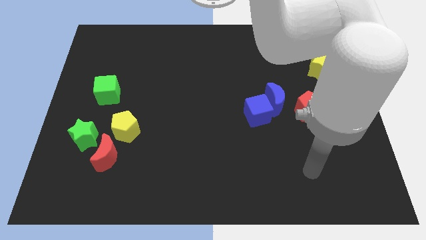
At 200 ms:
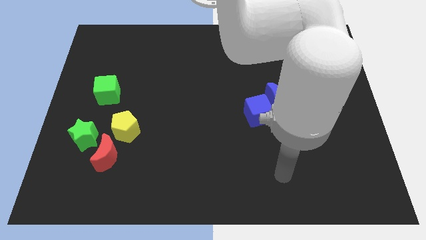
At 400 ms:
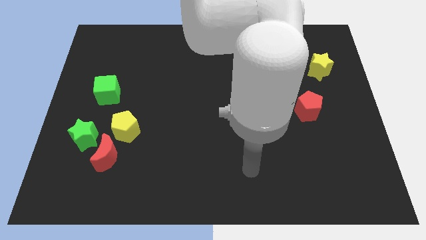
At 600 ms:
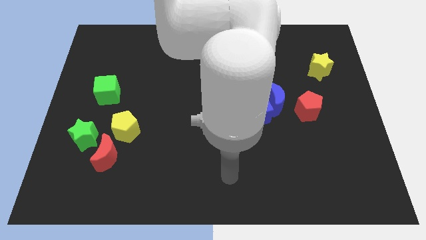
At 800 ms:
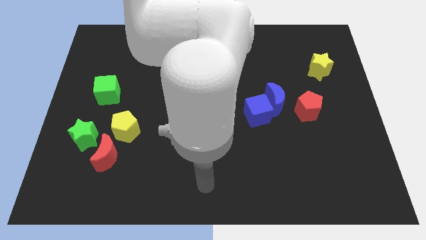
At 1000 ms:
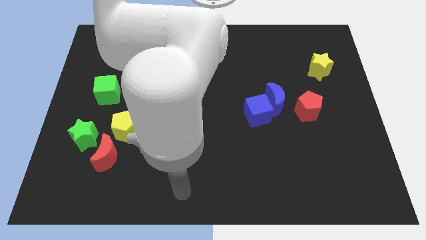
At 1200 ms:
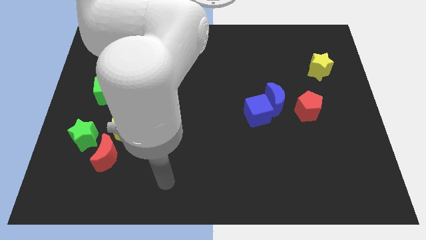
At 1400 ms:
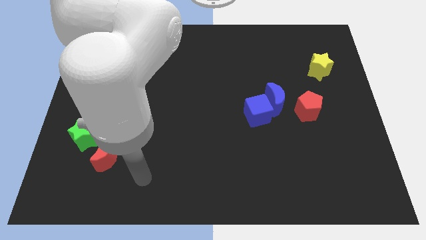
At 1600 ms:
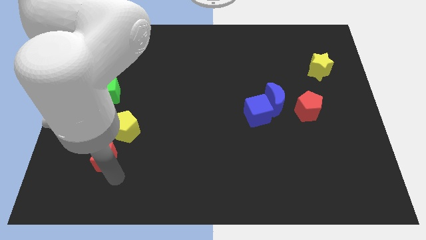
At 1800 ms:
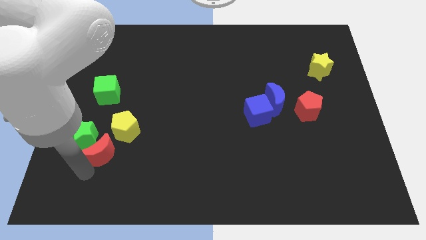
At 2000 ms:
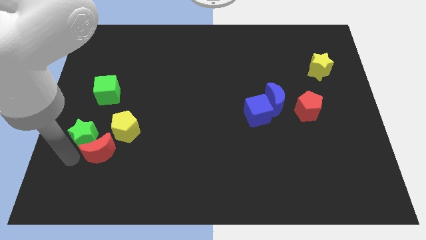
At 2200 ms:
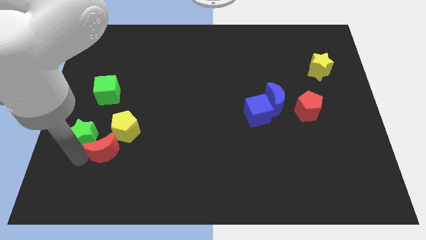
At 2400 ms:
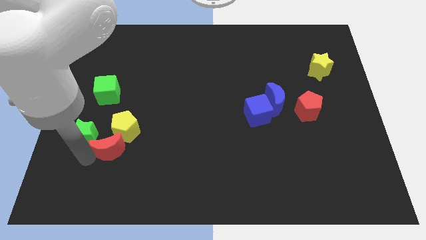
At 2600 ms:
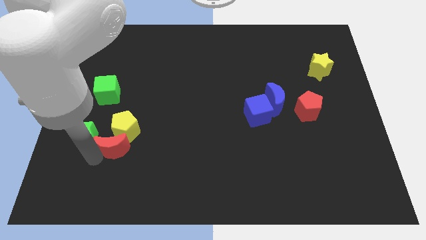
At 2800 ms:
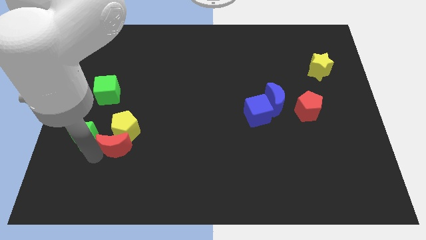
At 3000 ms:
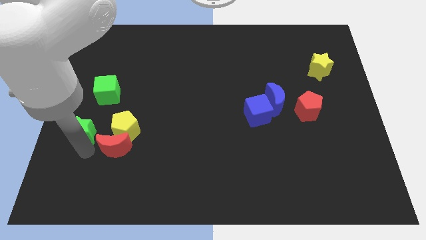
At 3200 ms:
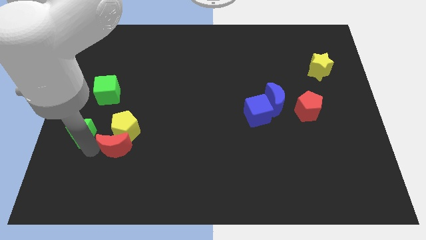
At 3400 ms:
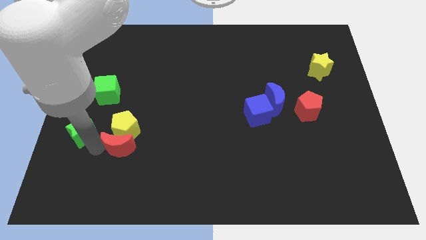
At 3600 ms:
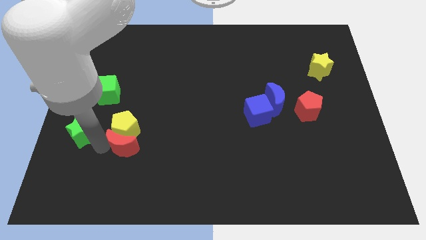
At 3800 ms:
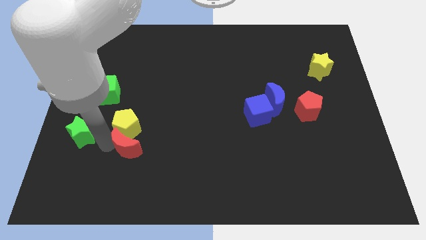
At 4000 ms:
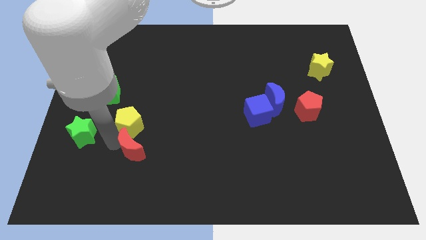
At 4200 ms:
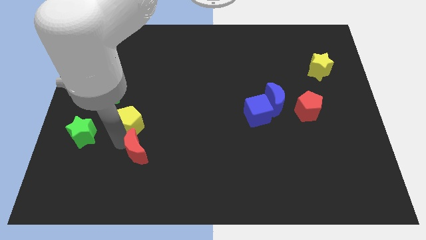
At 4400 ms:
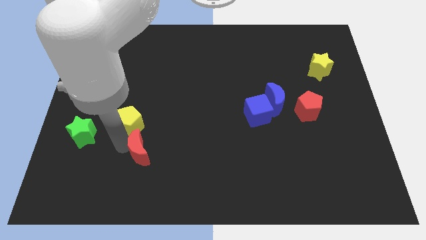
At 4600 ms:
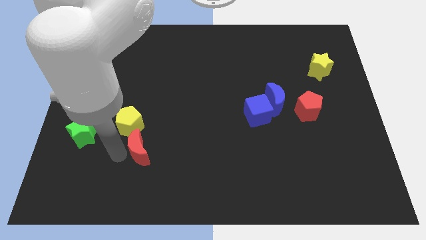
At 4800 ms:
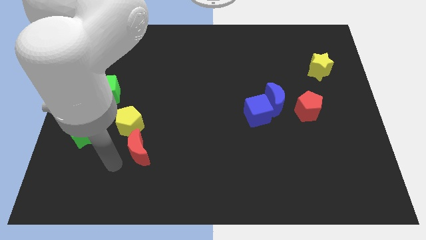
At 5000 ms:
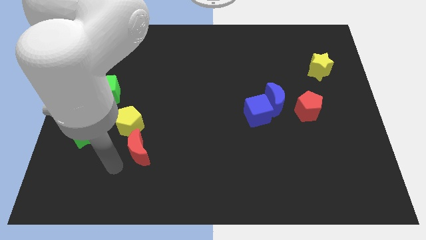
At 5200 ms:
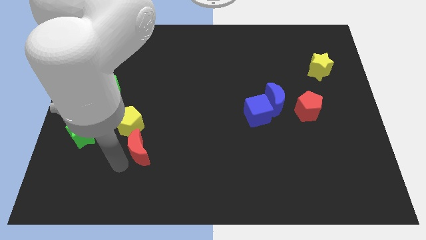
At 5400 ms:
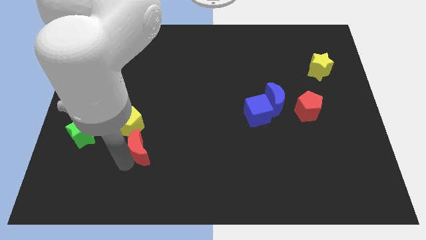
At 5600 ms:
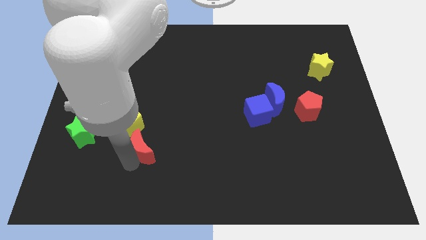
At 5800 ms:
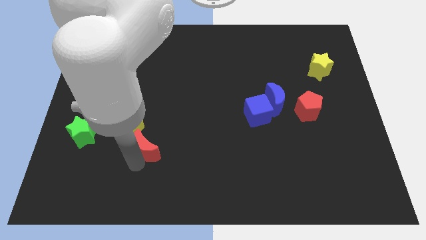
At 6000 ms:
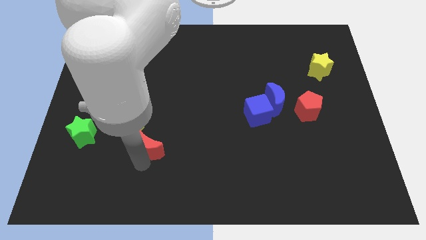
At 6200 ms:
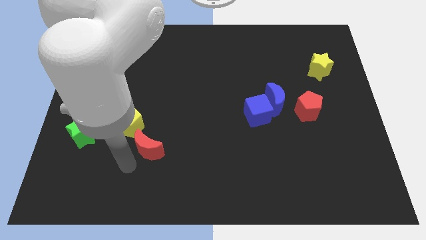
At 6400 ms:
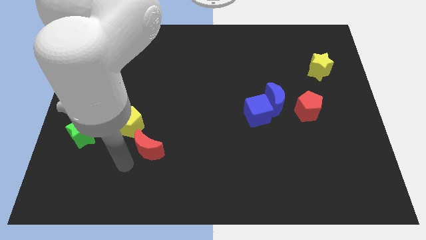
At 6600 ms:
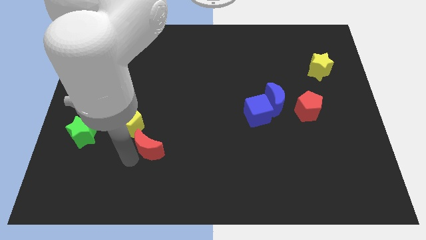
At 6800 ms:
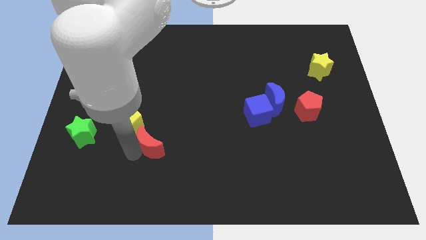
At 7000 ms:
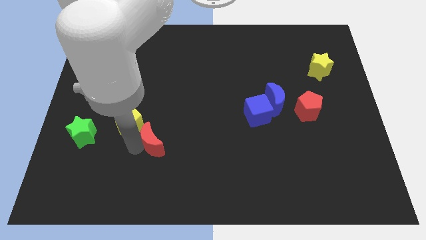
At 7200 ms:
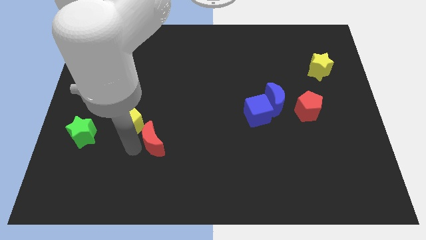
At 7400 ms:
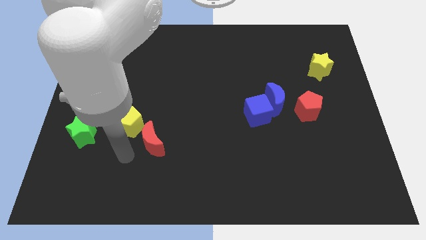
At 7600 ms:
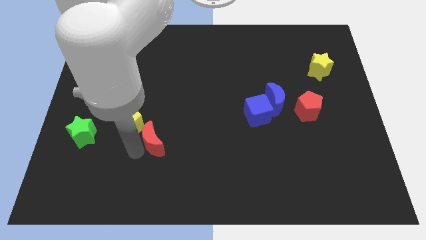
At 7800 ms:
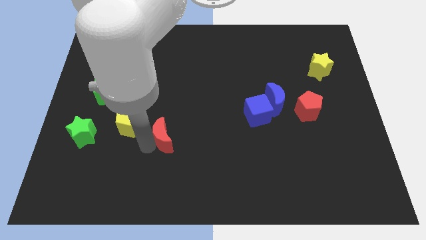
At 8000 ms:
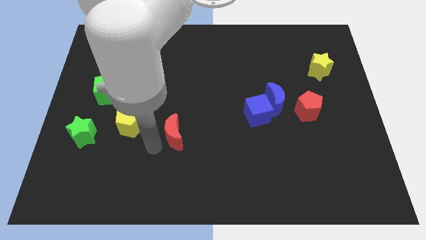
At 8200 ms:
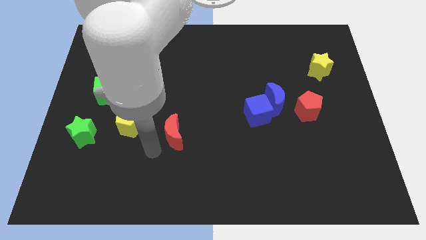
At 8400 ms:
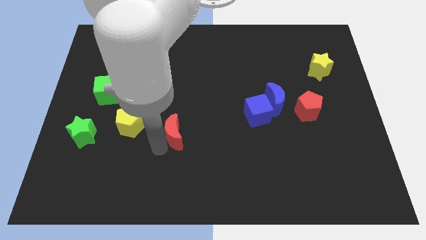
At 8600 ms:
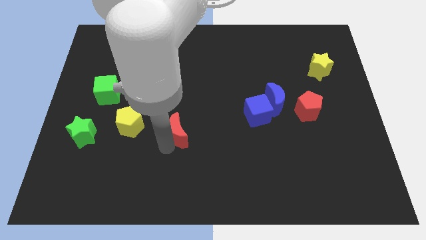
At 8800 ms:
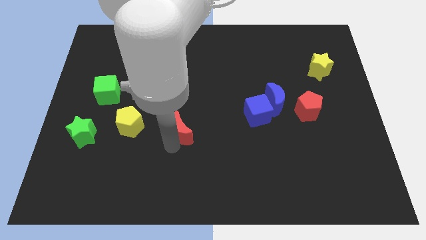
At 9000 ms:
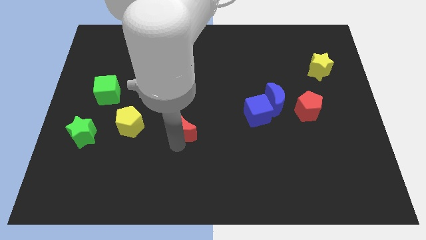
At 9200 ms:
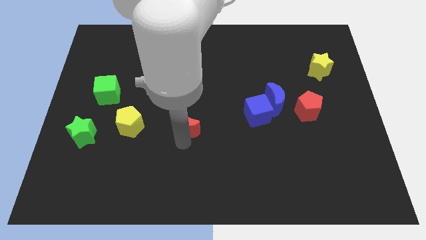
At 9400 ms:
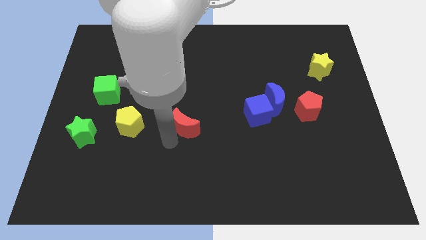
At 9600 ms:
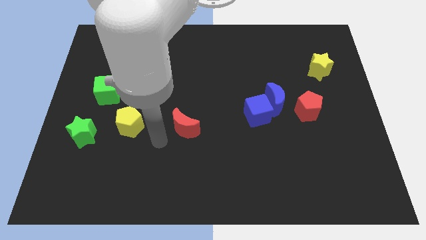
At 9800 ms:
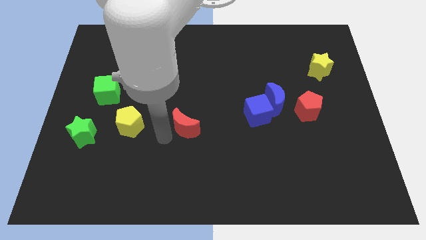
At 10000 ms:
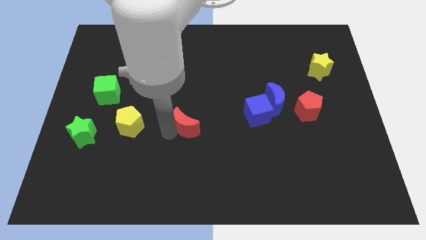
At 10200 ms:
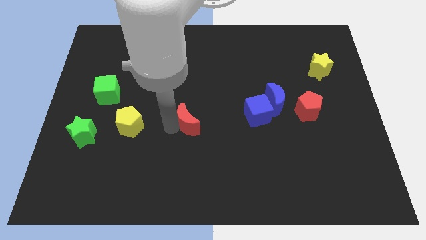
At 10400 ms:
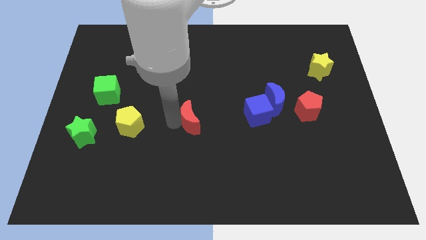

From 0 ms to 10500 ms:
move the red moon left of the blue cube

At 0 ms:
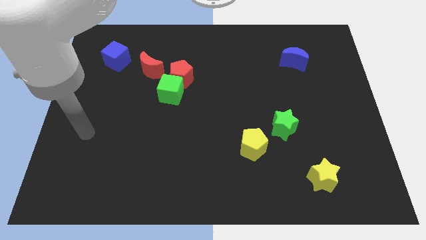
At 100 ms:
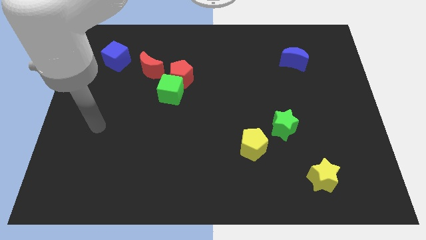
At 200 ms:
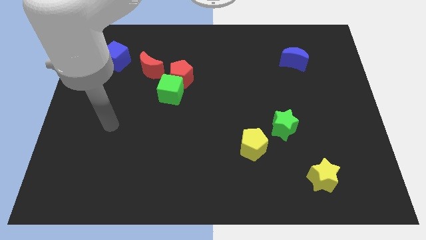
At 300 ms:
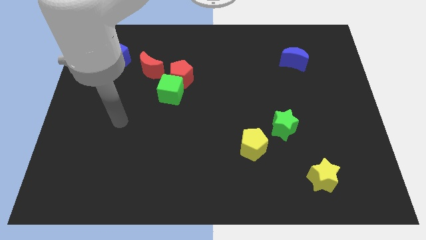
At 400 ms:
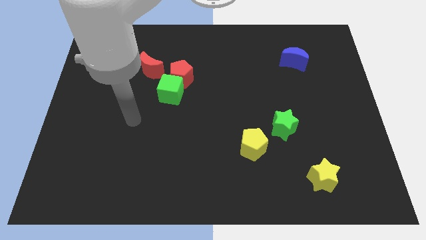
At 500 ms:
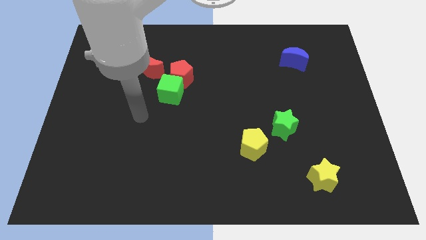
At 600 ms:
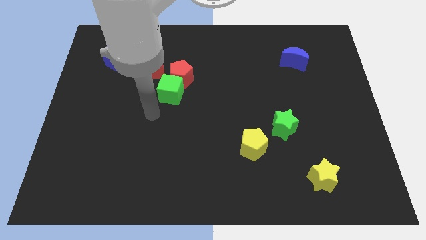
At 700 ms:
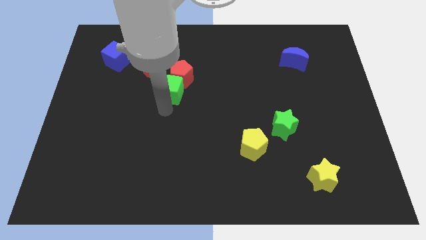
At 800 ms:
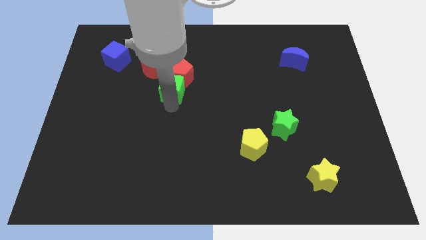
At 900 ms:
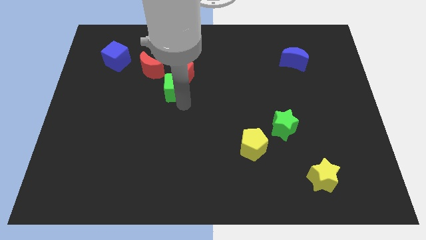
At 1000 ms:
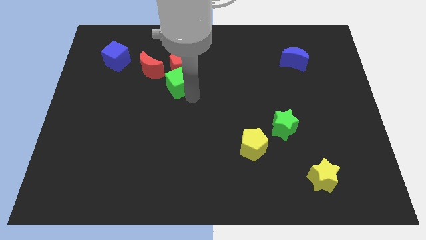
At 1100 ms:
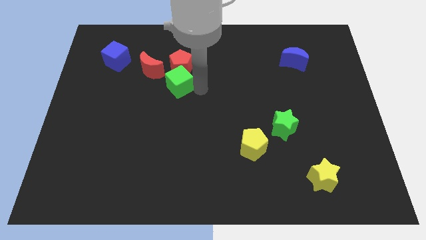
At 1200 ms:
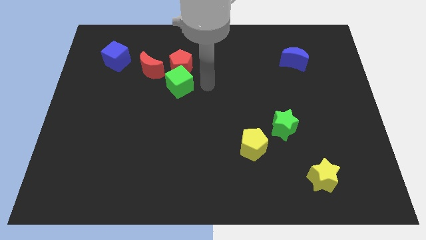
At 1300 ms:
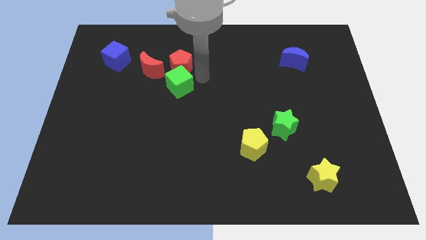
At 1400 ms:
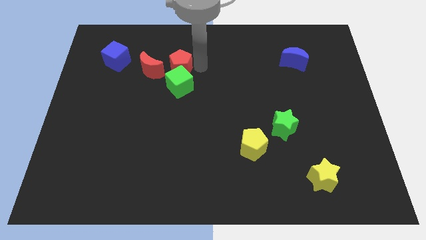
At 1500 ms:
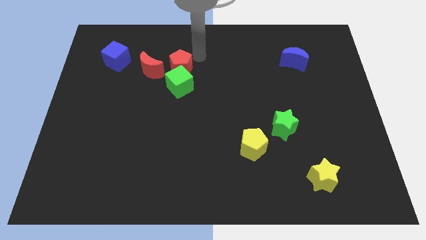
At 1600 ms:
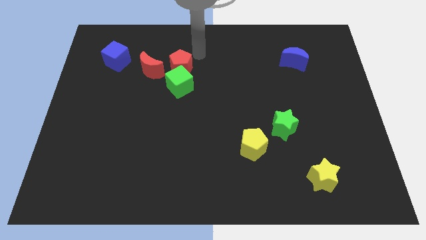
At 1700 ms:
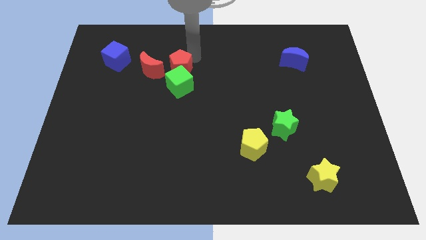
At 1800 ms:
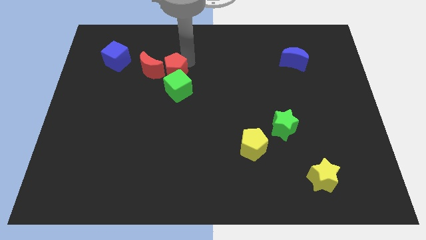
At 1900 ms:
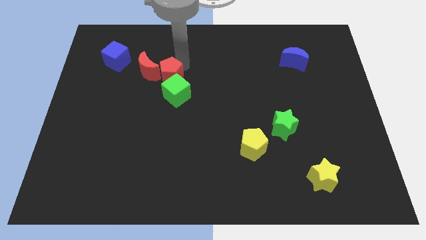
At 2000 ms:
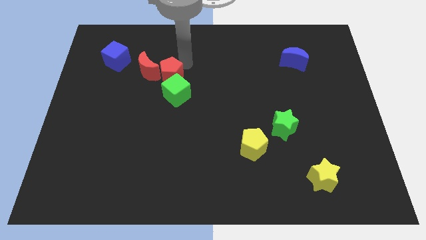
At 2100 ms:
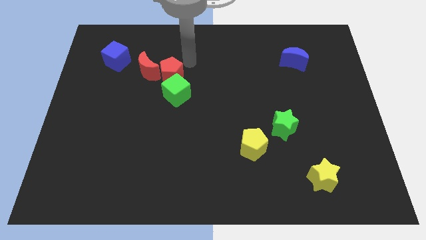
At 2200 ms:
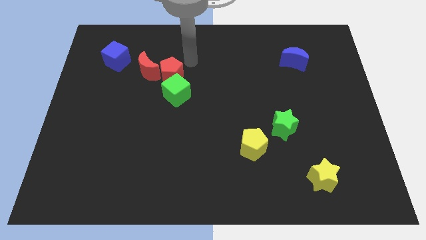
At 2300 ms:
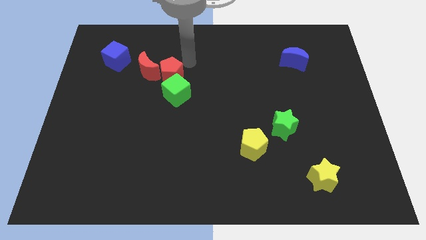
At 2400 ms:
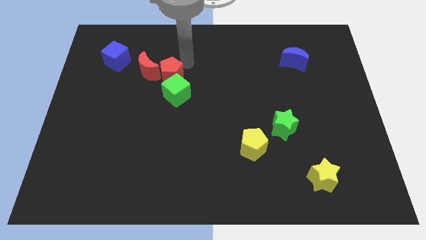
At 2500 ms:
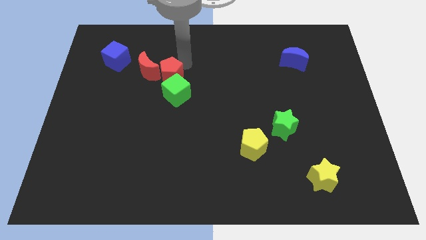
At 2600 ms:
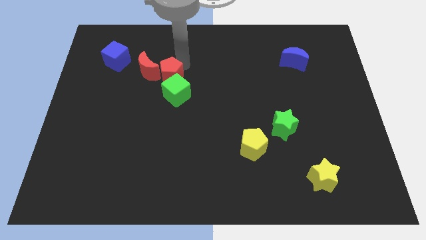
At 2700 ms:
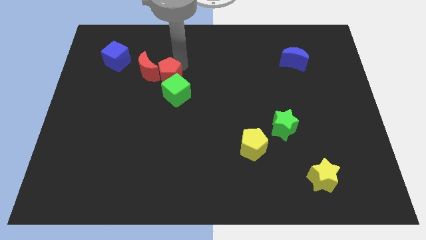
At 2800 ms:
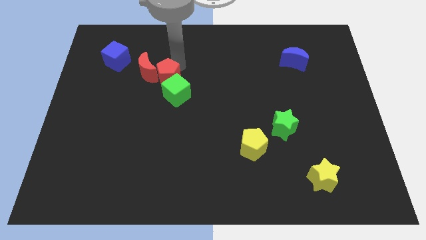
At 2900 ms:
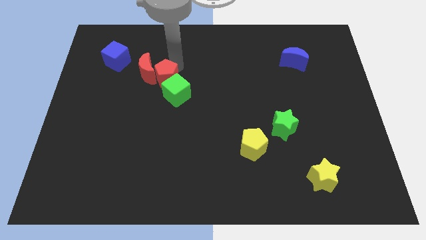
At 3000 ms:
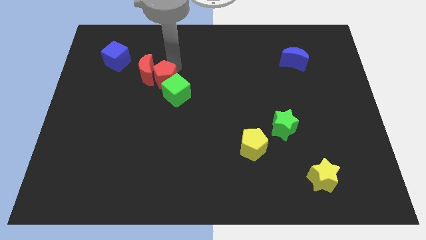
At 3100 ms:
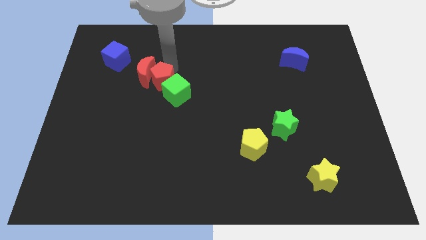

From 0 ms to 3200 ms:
push the red pentagon left of the green cube
